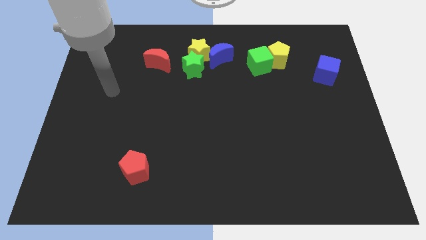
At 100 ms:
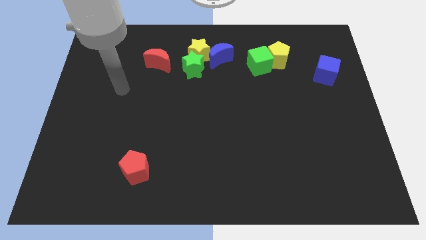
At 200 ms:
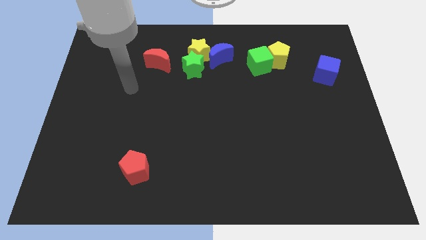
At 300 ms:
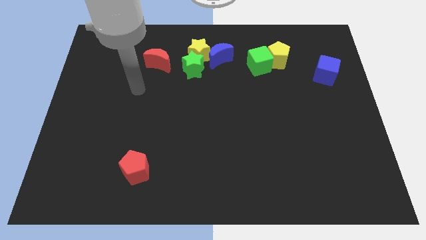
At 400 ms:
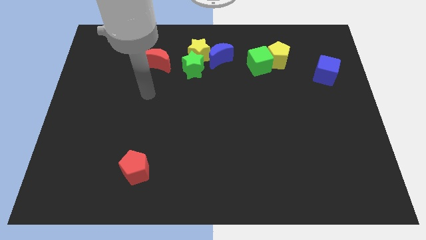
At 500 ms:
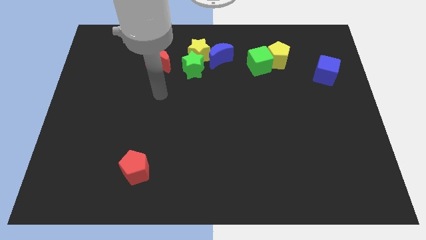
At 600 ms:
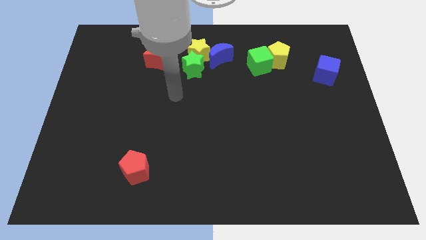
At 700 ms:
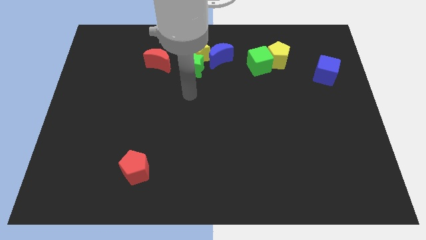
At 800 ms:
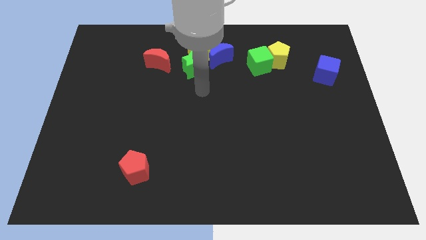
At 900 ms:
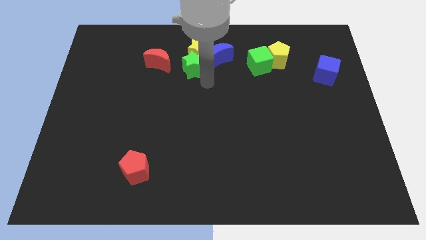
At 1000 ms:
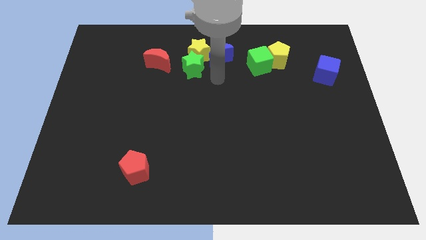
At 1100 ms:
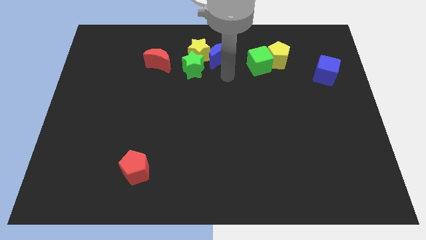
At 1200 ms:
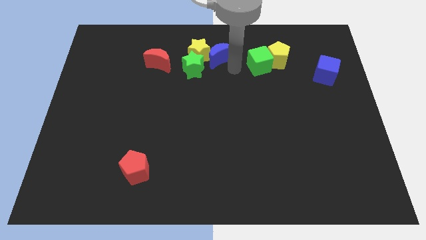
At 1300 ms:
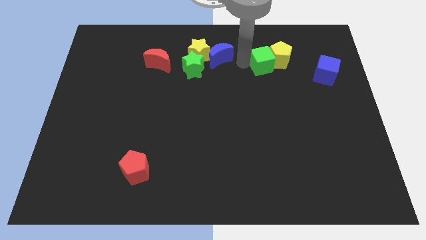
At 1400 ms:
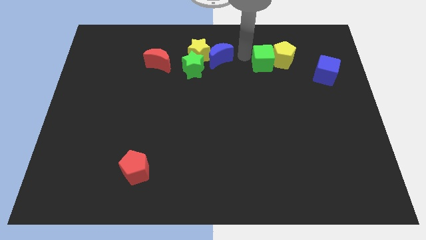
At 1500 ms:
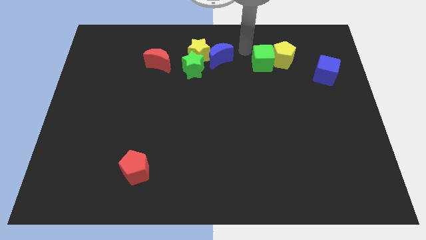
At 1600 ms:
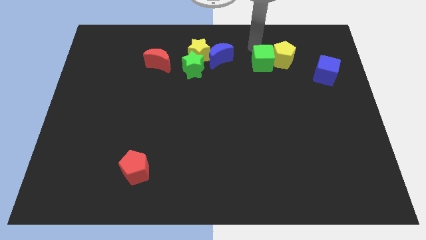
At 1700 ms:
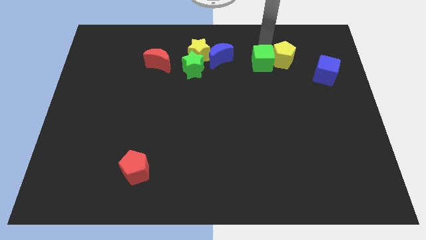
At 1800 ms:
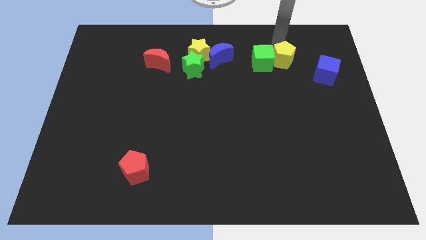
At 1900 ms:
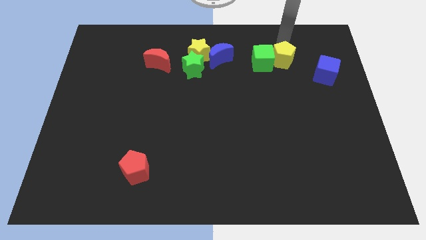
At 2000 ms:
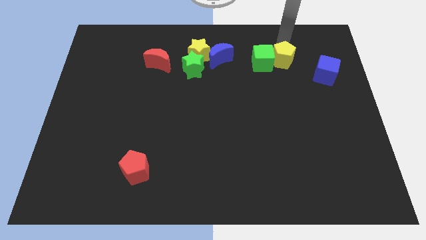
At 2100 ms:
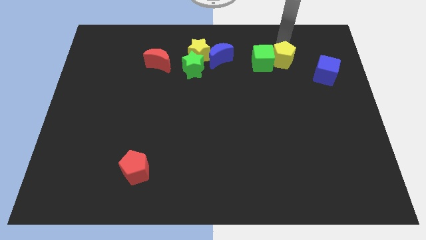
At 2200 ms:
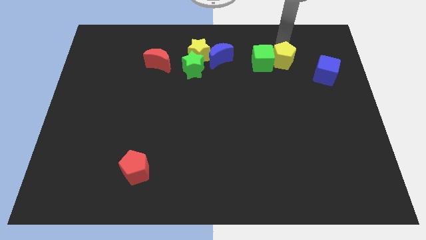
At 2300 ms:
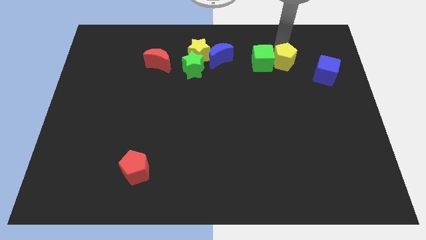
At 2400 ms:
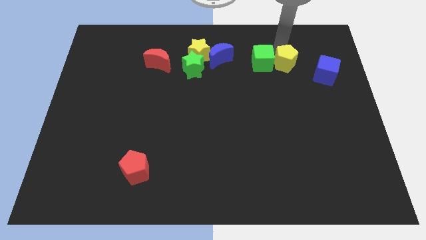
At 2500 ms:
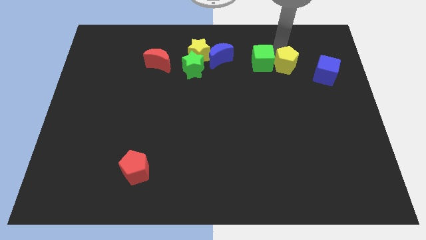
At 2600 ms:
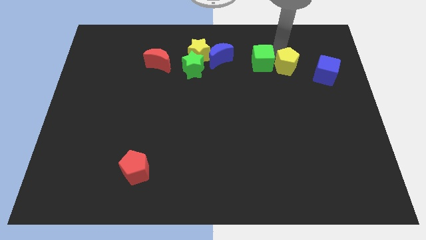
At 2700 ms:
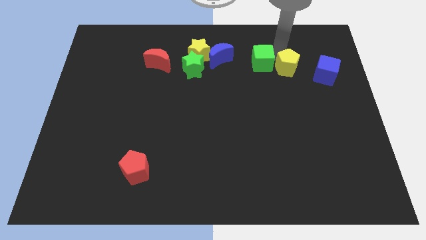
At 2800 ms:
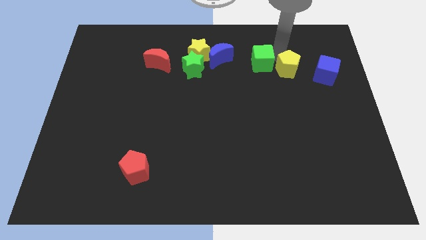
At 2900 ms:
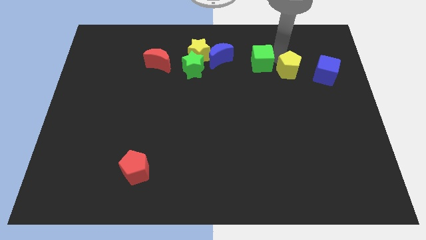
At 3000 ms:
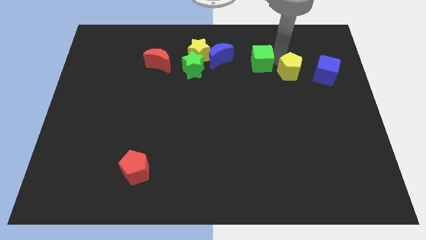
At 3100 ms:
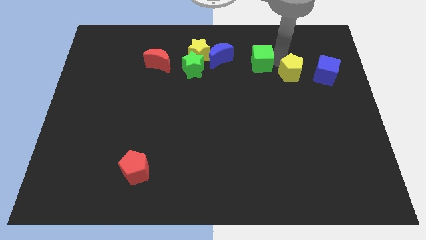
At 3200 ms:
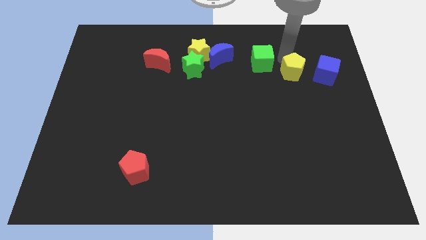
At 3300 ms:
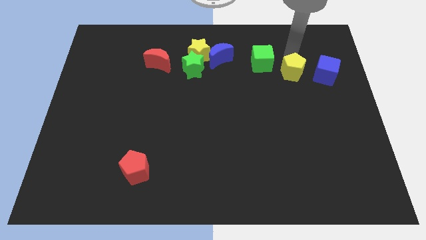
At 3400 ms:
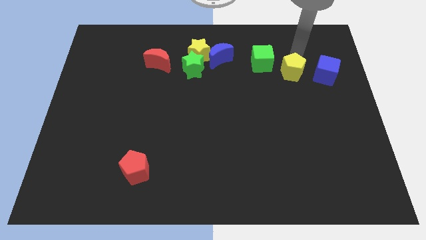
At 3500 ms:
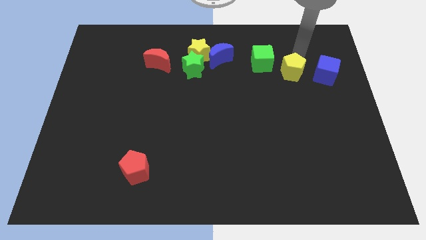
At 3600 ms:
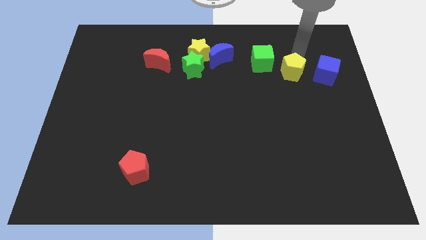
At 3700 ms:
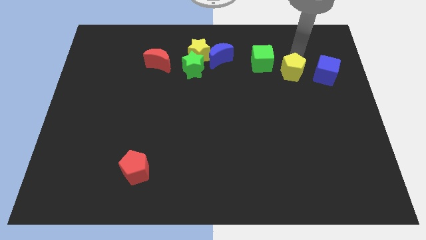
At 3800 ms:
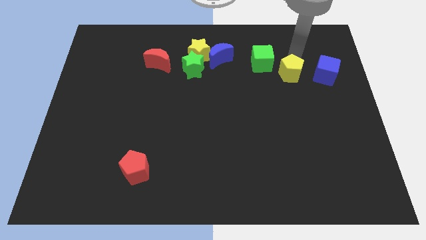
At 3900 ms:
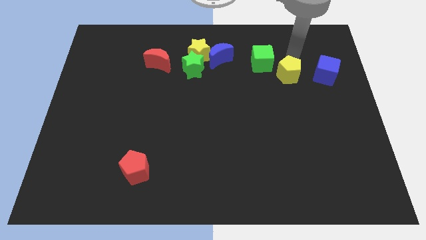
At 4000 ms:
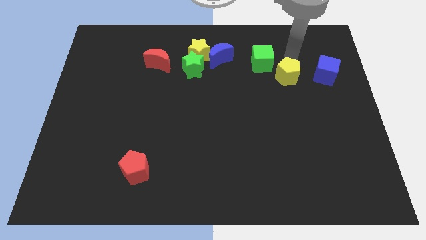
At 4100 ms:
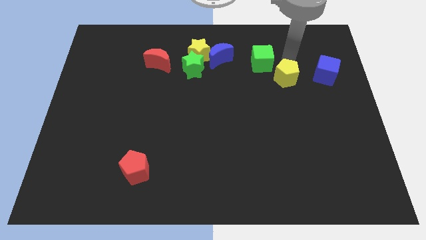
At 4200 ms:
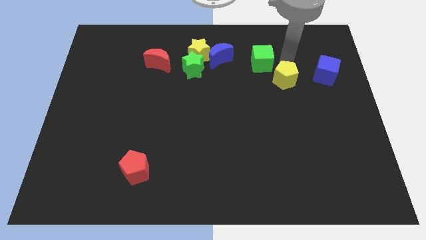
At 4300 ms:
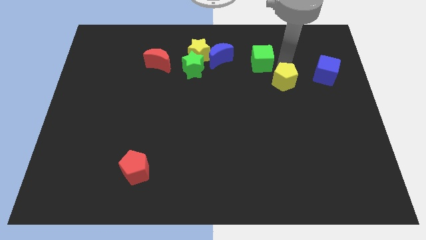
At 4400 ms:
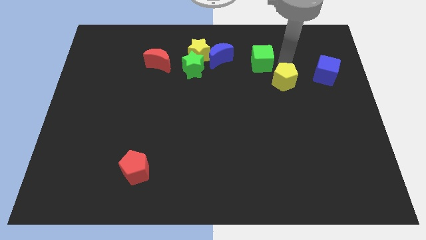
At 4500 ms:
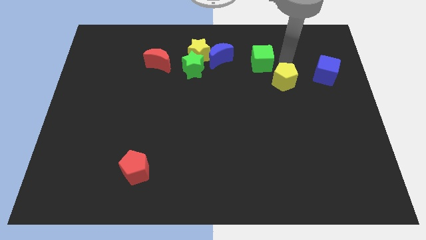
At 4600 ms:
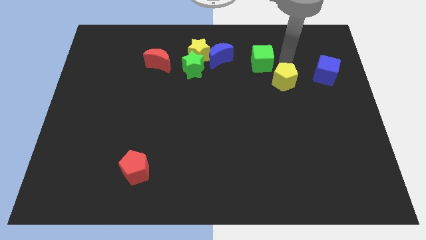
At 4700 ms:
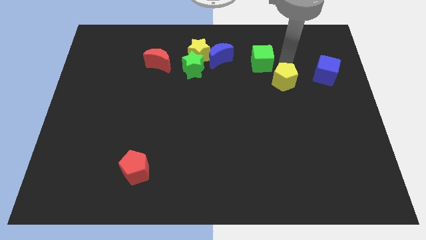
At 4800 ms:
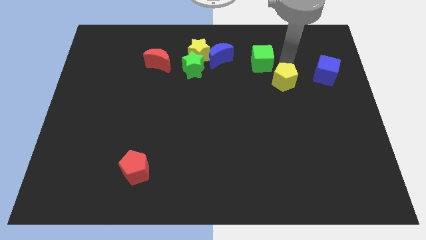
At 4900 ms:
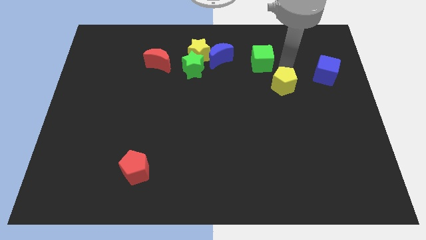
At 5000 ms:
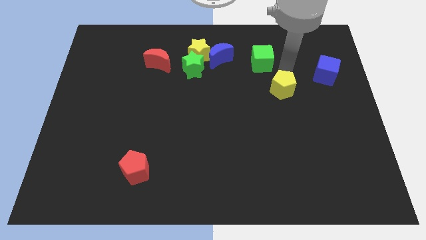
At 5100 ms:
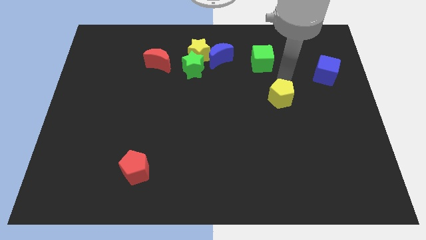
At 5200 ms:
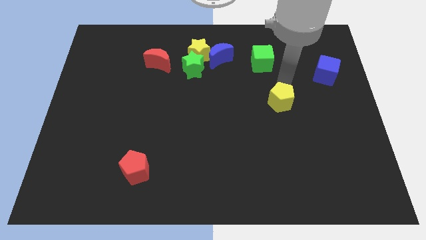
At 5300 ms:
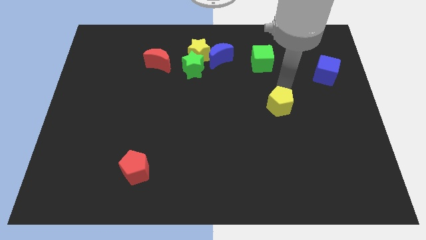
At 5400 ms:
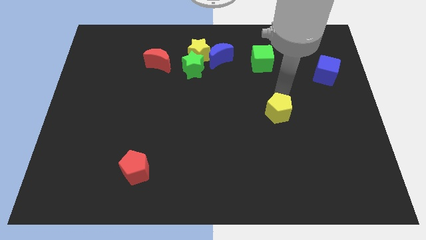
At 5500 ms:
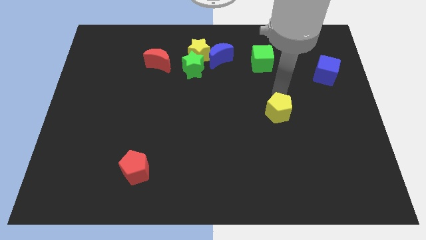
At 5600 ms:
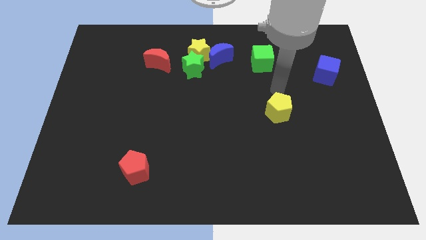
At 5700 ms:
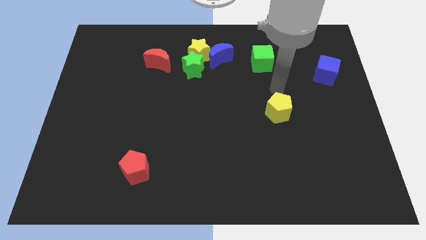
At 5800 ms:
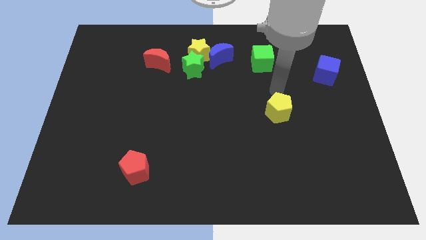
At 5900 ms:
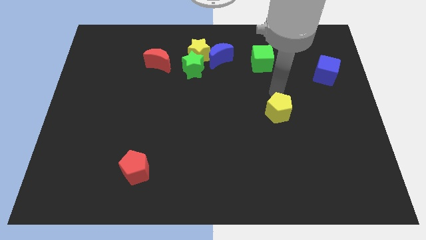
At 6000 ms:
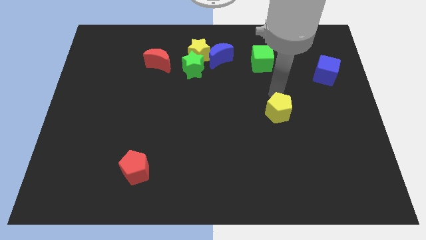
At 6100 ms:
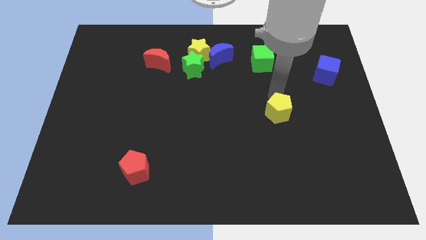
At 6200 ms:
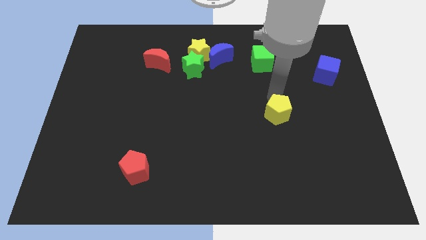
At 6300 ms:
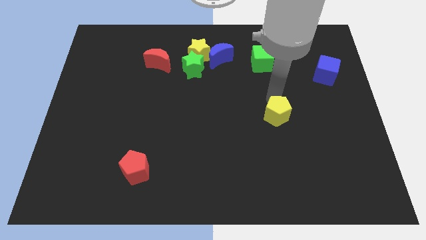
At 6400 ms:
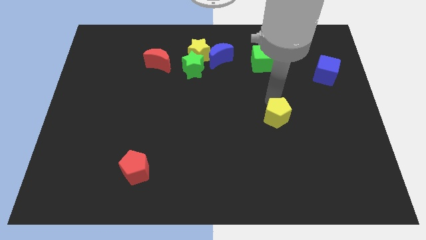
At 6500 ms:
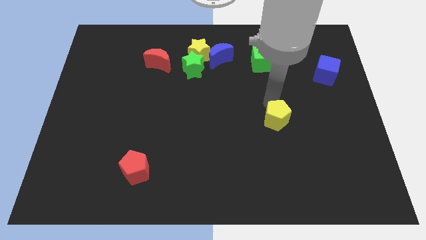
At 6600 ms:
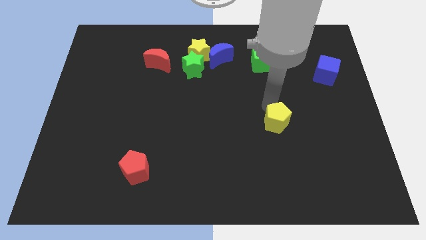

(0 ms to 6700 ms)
push the yellow pentagon downwards

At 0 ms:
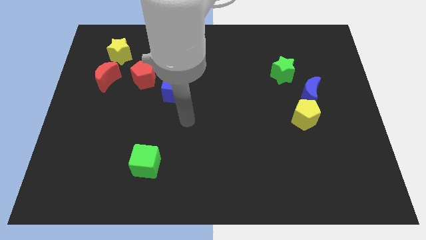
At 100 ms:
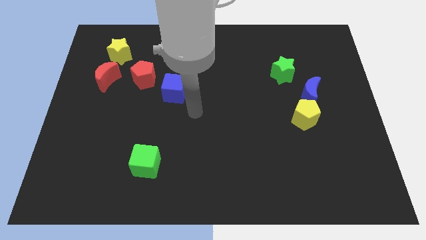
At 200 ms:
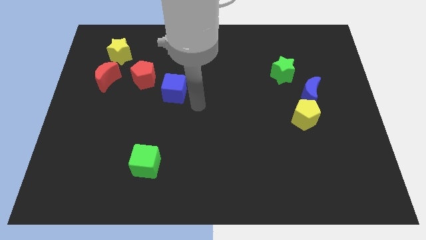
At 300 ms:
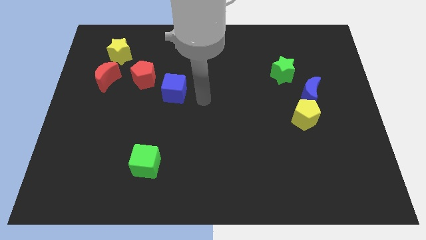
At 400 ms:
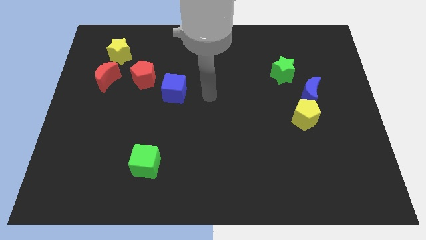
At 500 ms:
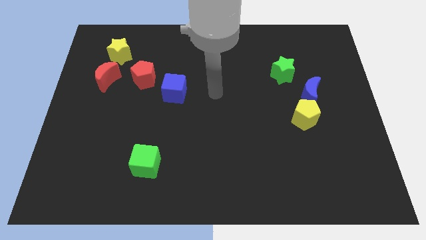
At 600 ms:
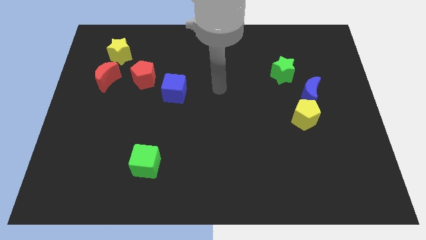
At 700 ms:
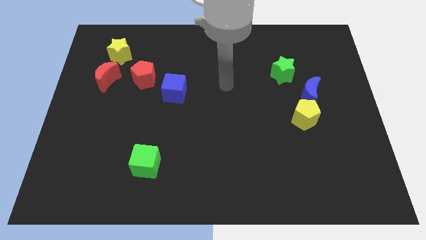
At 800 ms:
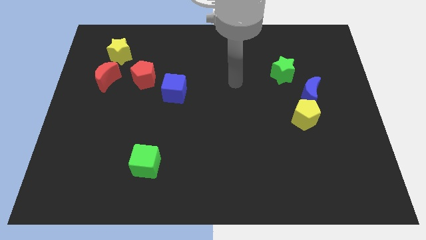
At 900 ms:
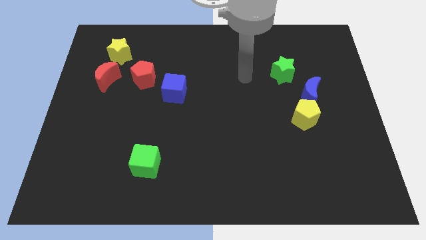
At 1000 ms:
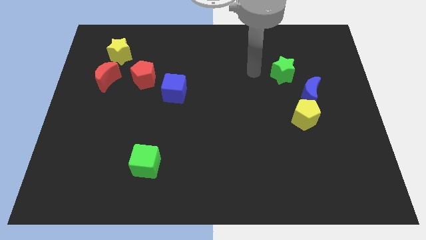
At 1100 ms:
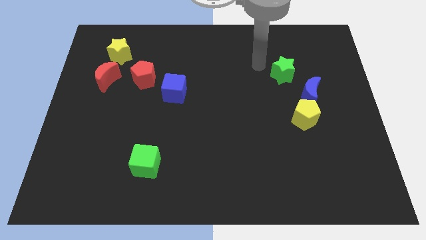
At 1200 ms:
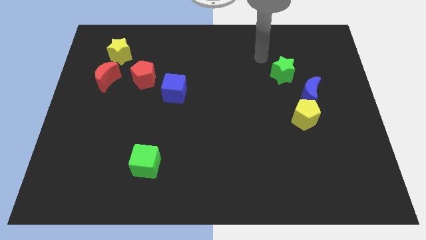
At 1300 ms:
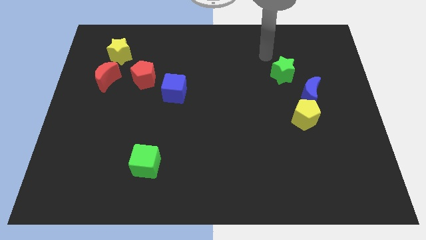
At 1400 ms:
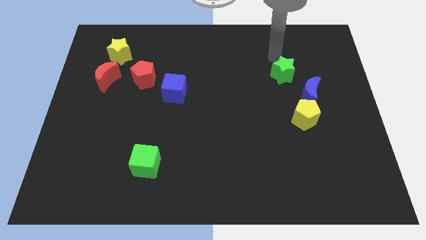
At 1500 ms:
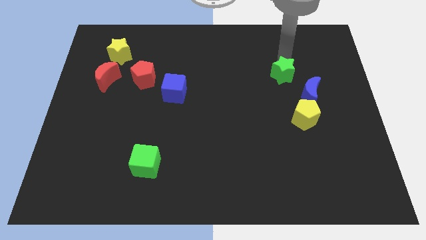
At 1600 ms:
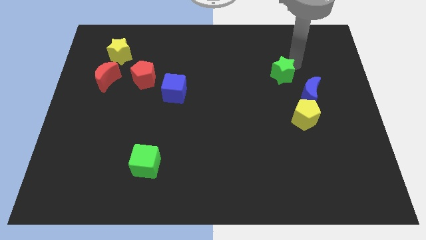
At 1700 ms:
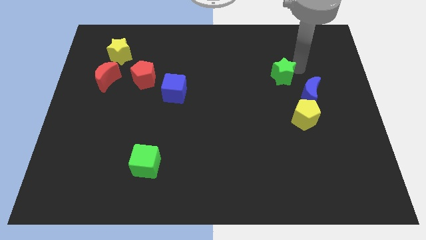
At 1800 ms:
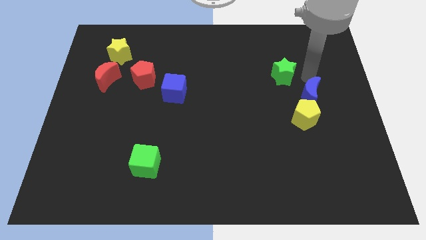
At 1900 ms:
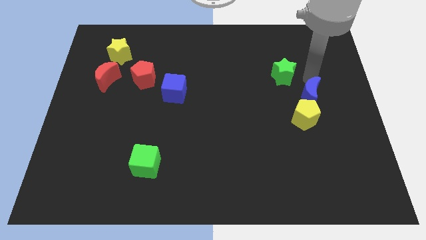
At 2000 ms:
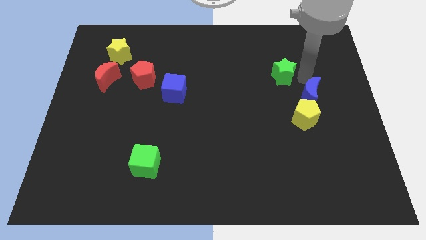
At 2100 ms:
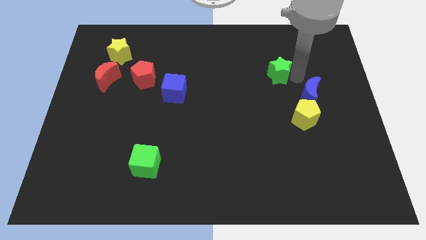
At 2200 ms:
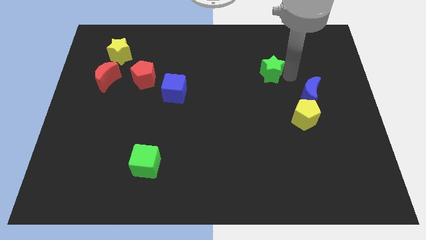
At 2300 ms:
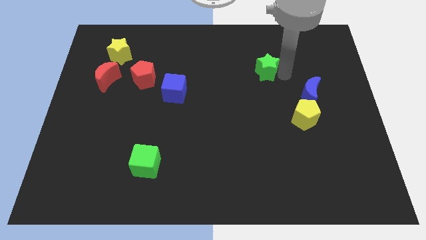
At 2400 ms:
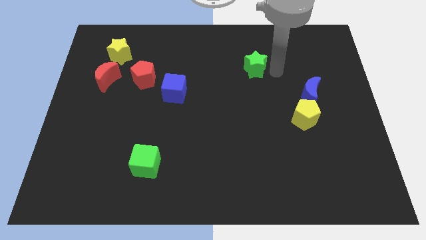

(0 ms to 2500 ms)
slide the green star to the left slightly
